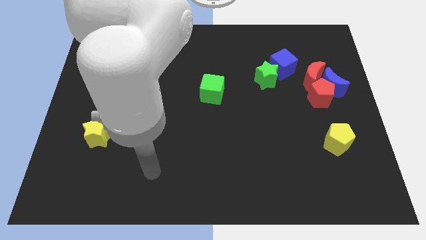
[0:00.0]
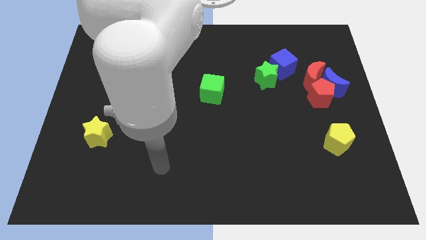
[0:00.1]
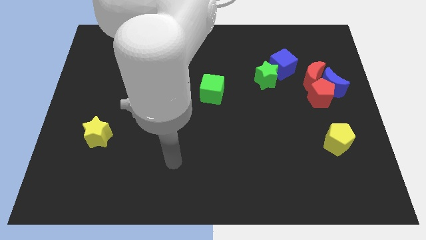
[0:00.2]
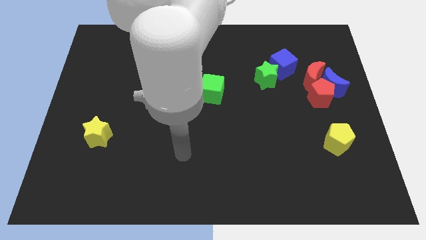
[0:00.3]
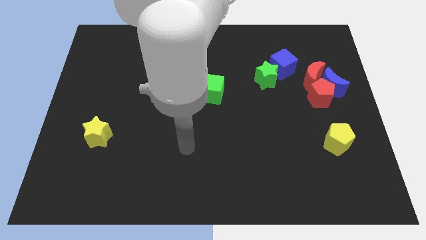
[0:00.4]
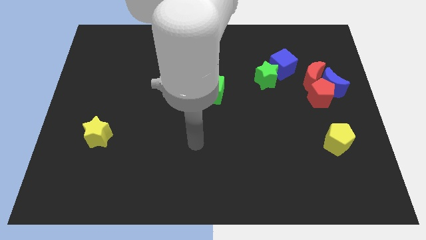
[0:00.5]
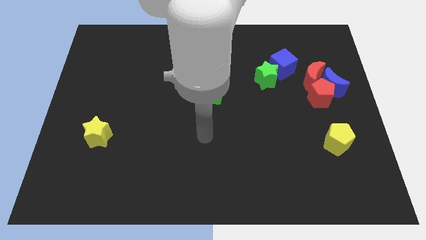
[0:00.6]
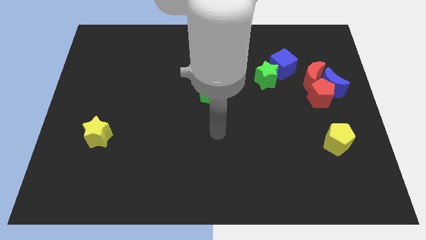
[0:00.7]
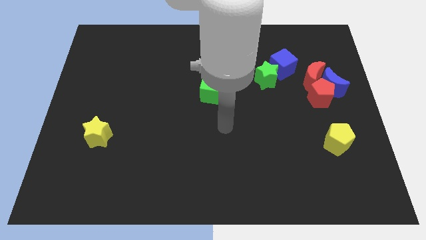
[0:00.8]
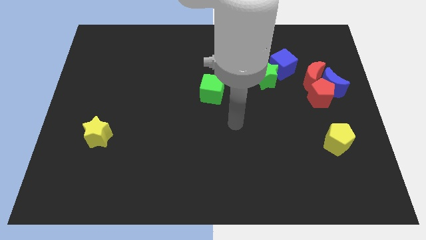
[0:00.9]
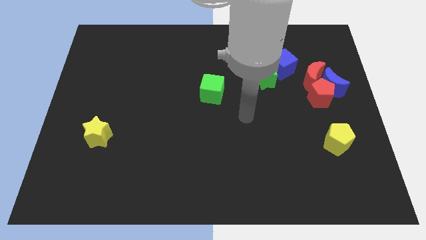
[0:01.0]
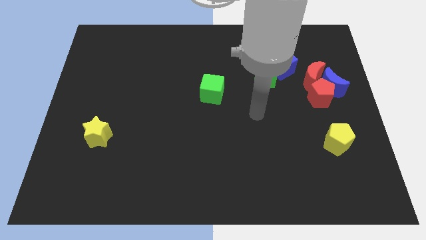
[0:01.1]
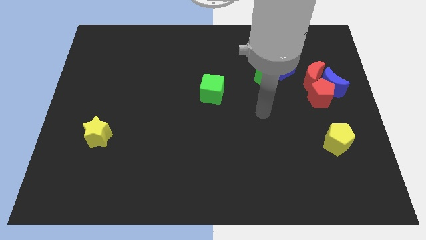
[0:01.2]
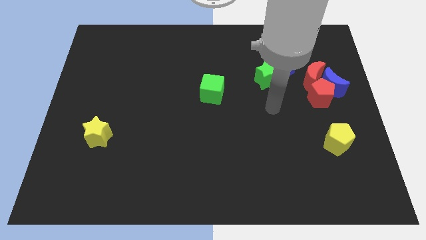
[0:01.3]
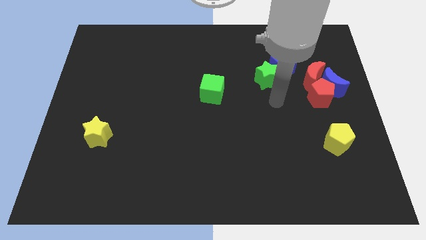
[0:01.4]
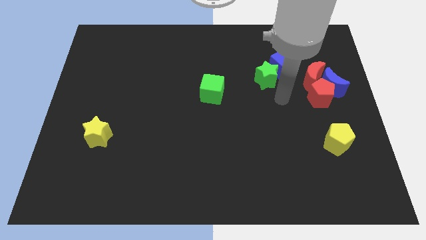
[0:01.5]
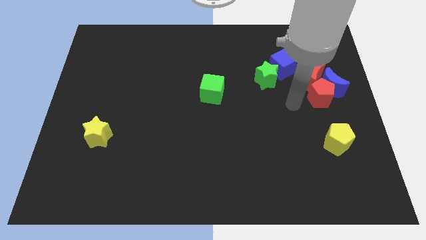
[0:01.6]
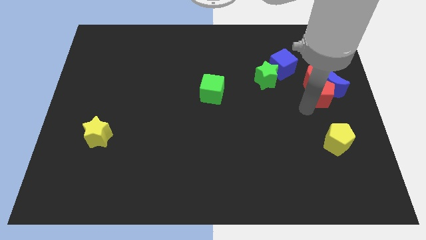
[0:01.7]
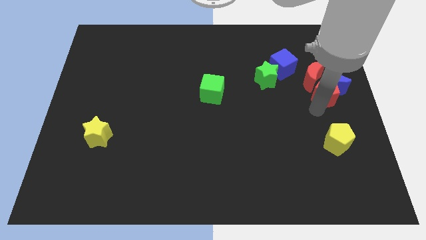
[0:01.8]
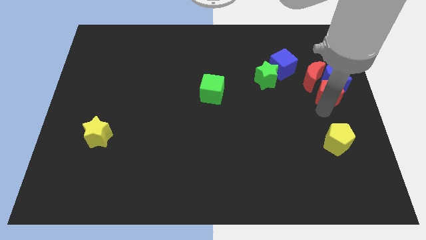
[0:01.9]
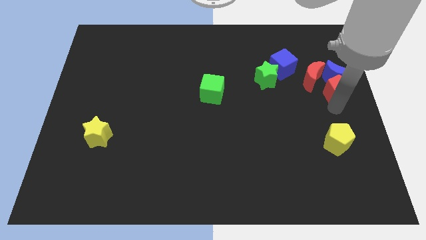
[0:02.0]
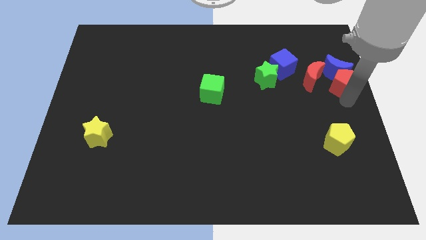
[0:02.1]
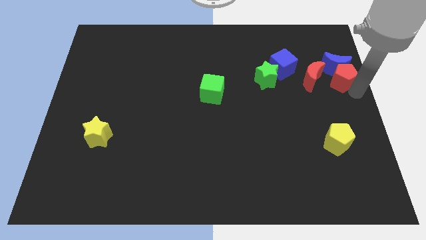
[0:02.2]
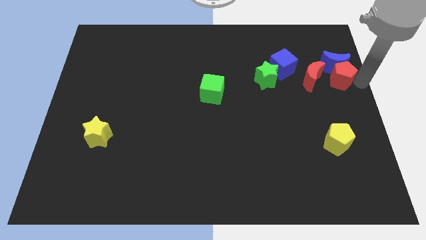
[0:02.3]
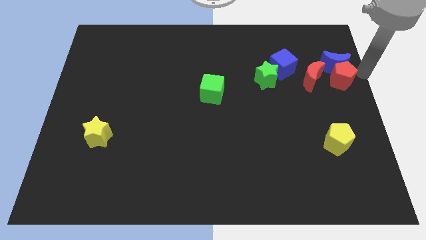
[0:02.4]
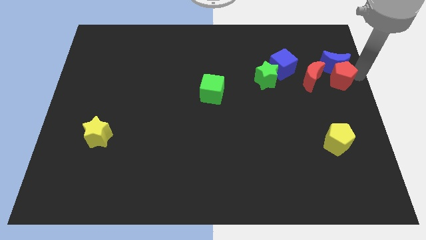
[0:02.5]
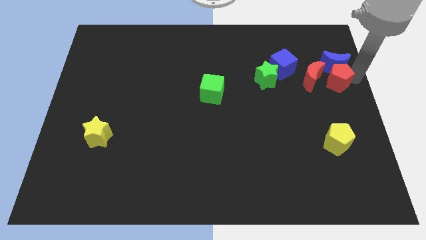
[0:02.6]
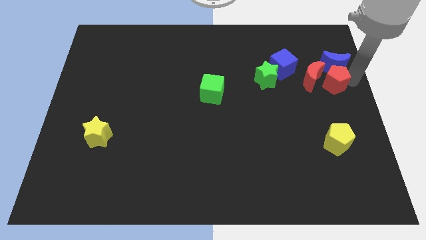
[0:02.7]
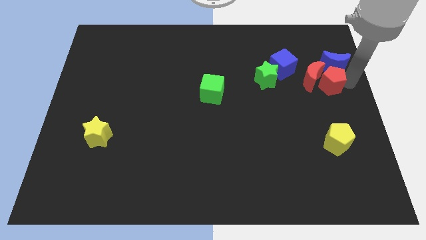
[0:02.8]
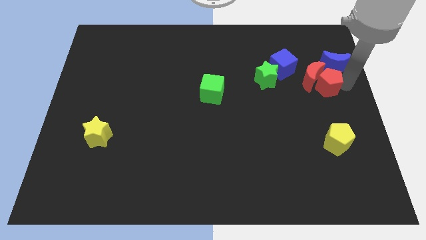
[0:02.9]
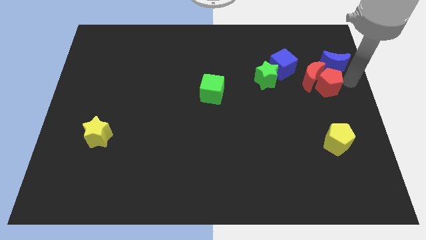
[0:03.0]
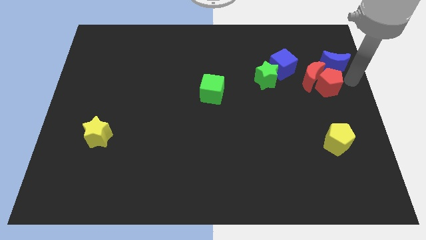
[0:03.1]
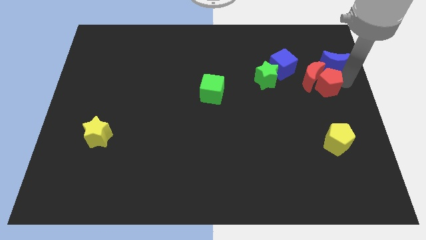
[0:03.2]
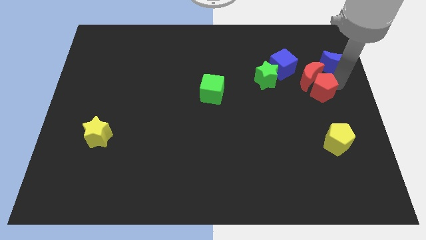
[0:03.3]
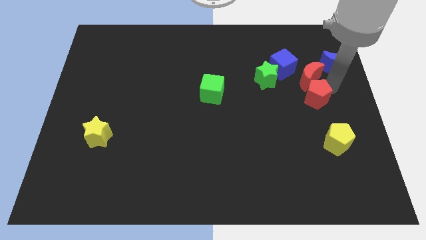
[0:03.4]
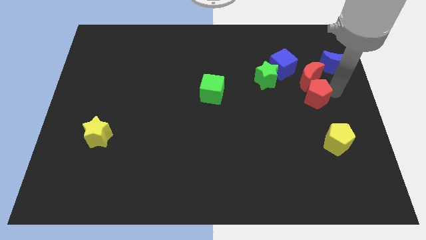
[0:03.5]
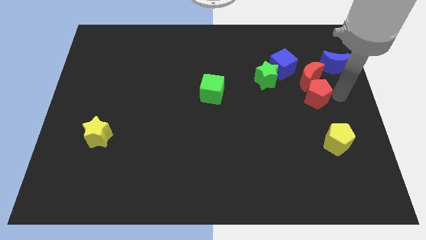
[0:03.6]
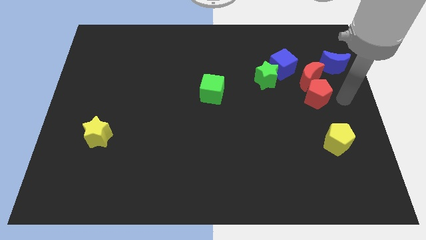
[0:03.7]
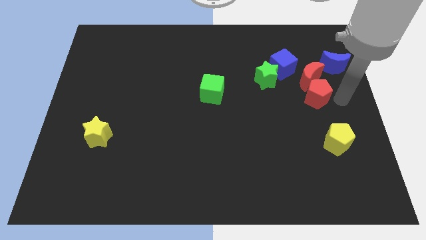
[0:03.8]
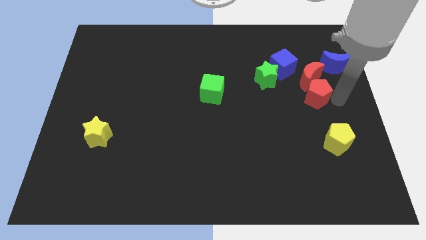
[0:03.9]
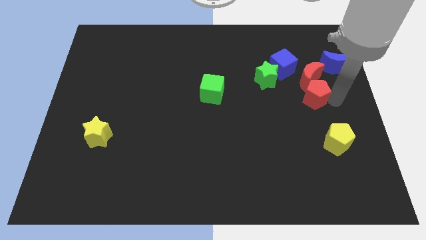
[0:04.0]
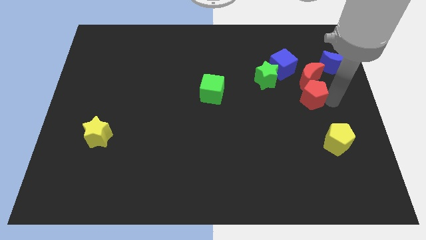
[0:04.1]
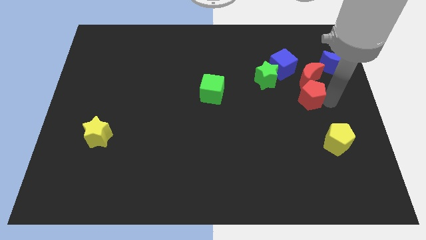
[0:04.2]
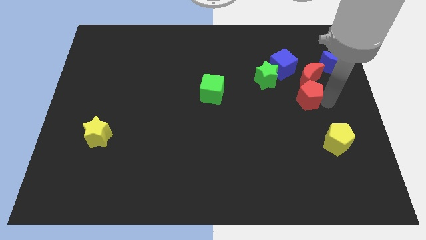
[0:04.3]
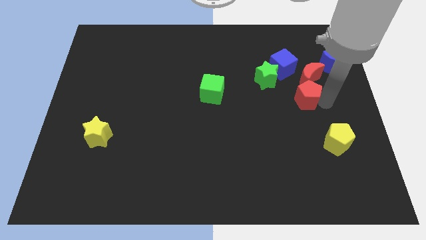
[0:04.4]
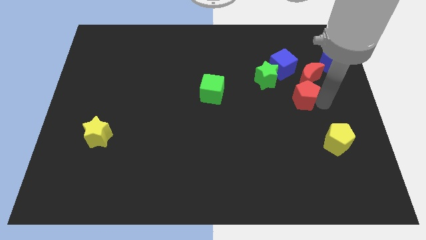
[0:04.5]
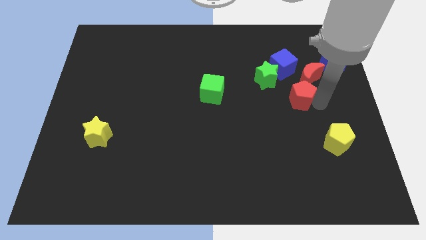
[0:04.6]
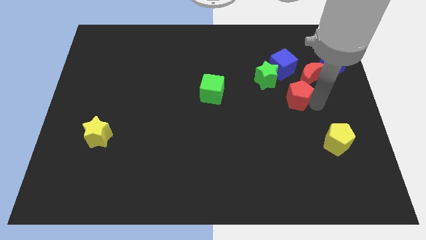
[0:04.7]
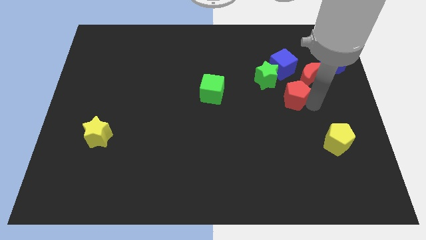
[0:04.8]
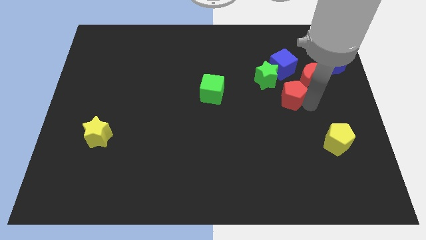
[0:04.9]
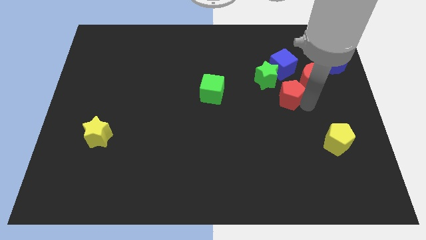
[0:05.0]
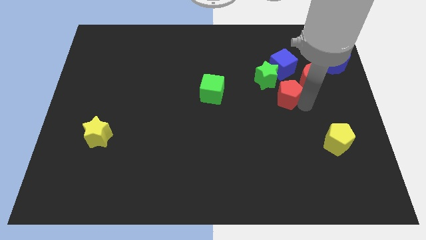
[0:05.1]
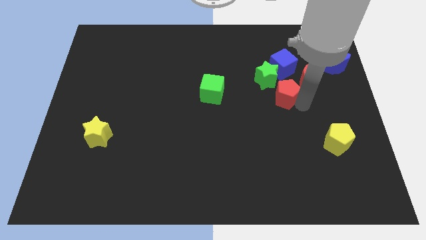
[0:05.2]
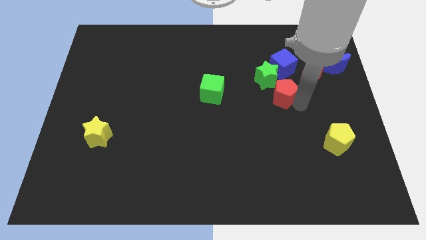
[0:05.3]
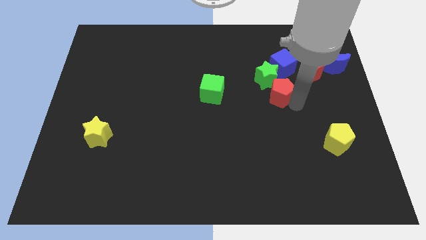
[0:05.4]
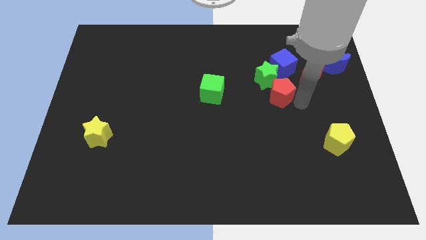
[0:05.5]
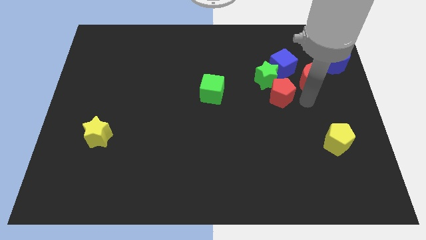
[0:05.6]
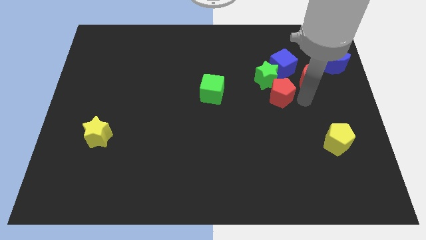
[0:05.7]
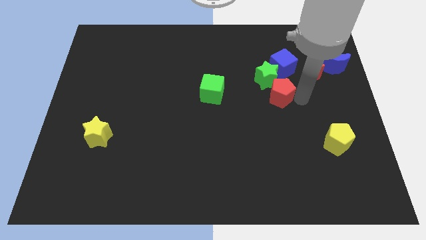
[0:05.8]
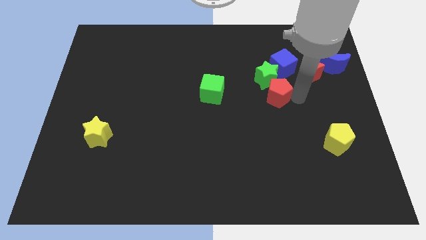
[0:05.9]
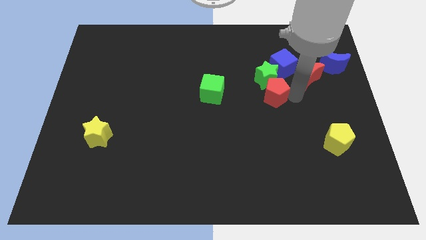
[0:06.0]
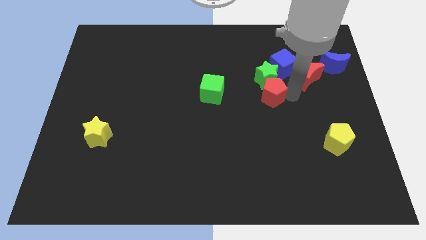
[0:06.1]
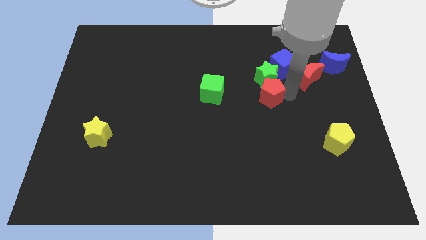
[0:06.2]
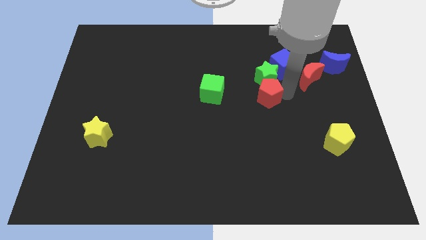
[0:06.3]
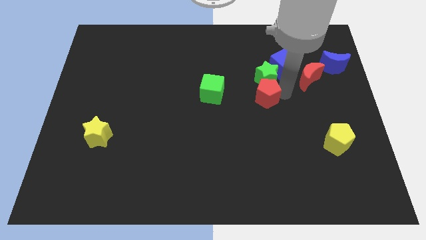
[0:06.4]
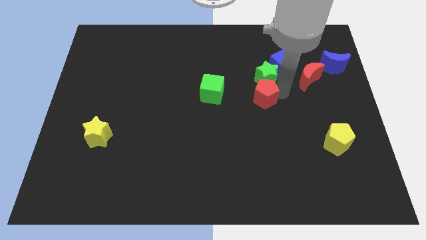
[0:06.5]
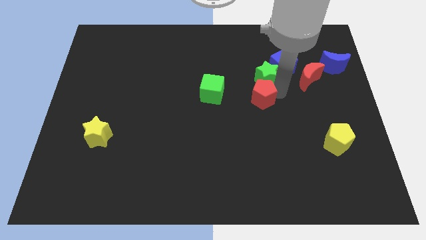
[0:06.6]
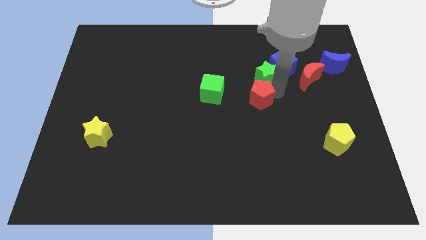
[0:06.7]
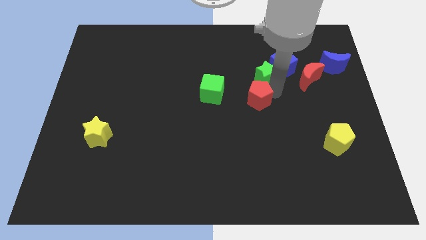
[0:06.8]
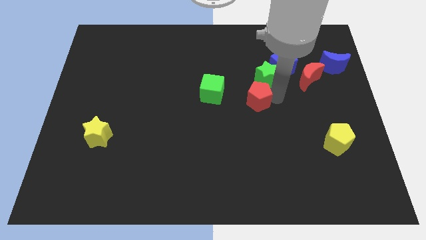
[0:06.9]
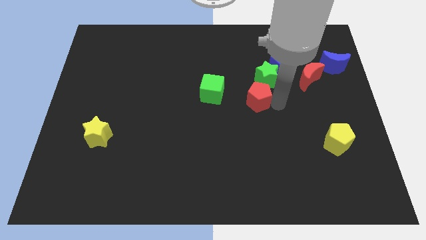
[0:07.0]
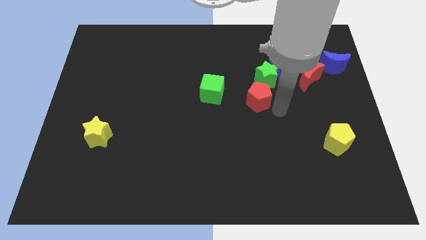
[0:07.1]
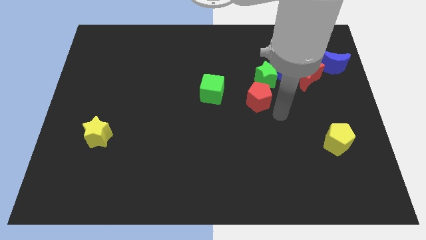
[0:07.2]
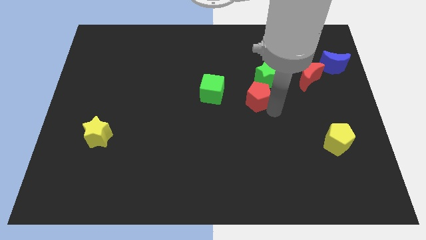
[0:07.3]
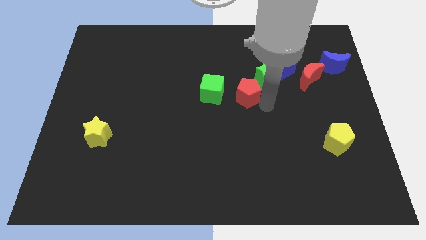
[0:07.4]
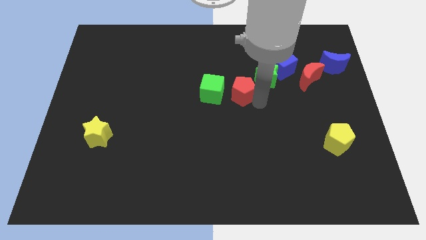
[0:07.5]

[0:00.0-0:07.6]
move the red pentagon just left of the green star
